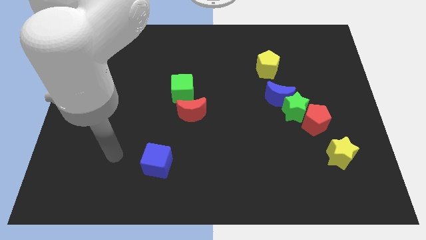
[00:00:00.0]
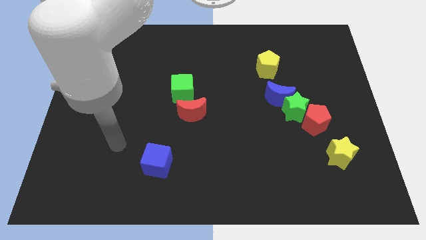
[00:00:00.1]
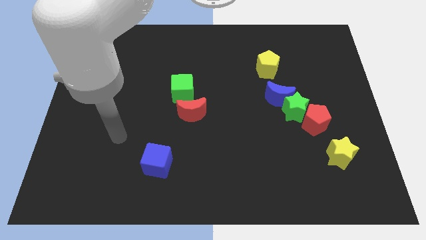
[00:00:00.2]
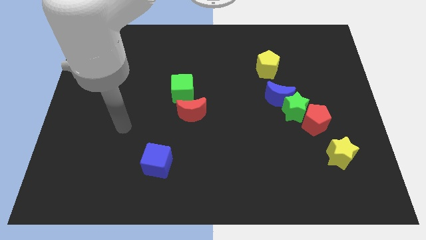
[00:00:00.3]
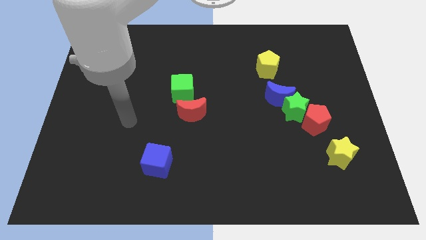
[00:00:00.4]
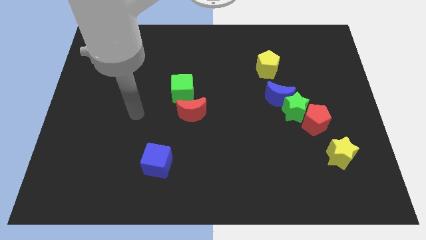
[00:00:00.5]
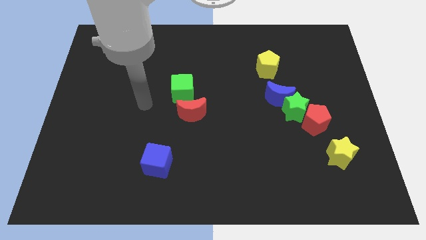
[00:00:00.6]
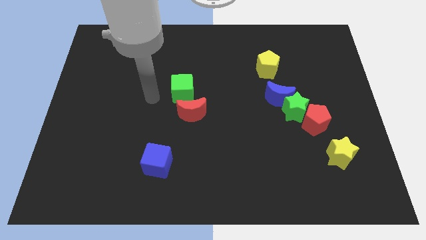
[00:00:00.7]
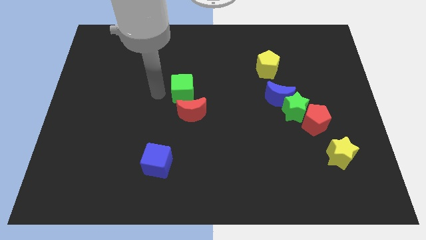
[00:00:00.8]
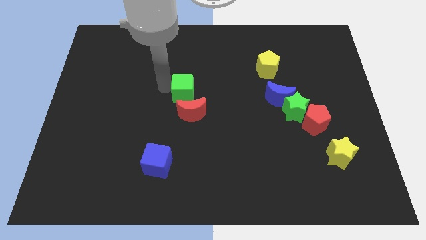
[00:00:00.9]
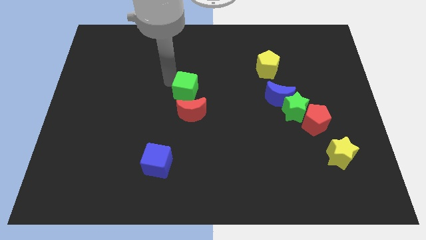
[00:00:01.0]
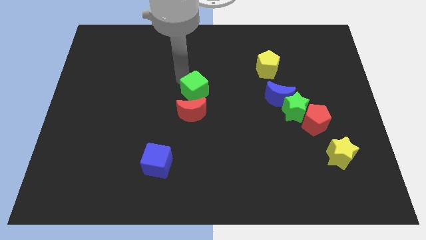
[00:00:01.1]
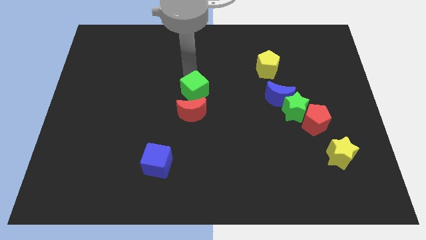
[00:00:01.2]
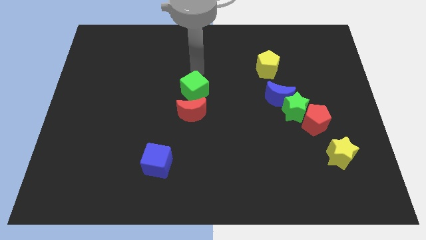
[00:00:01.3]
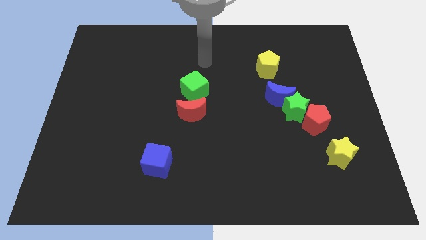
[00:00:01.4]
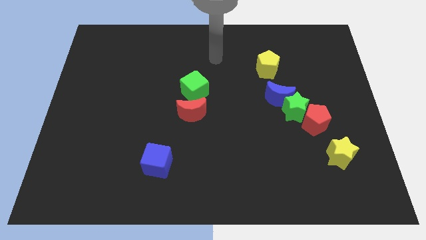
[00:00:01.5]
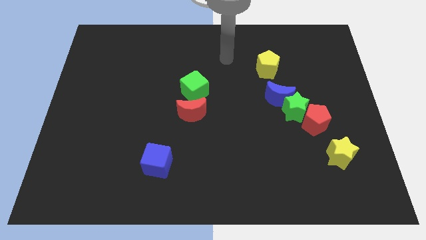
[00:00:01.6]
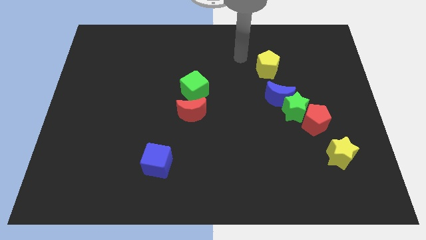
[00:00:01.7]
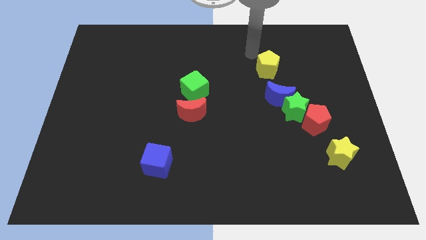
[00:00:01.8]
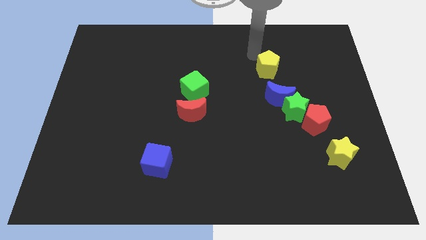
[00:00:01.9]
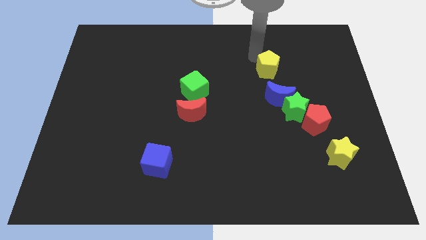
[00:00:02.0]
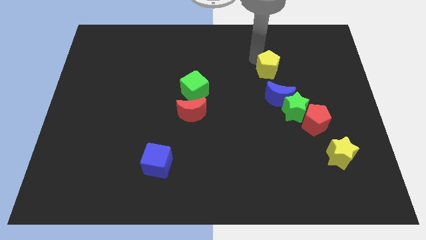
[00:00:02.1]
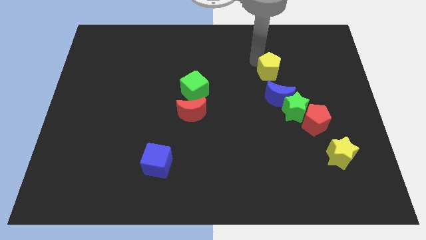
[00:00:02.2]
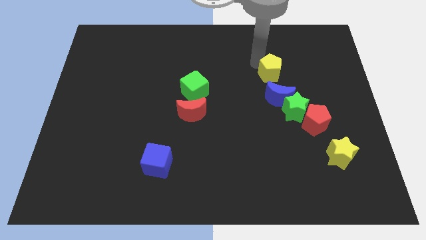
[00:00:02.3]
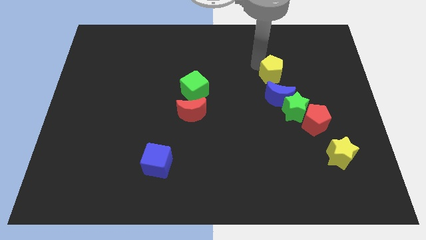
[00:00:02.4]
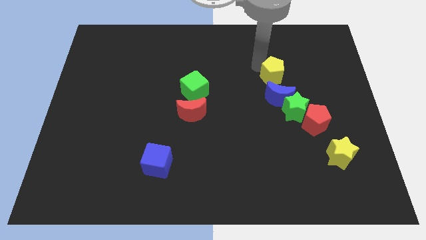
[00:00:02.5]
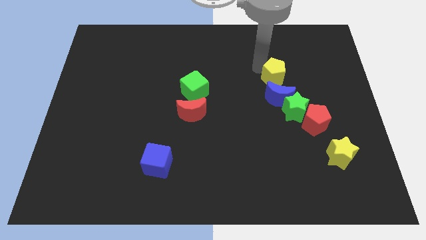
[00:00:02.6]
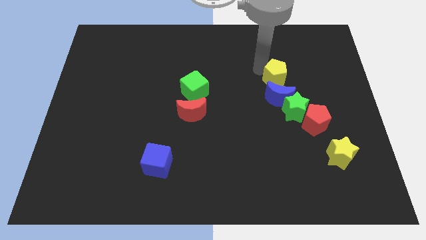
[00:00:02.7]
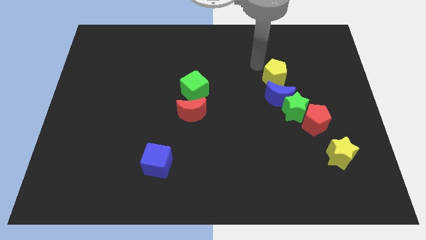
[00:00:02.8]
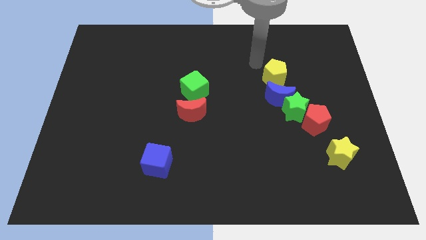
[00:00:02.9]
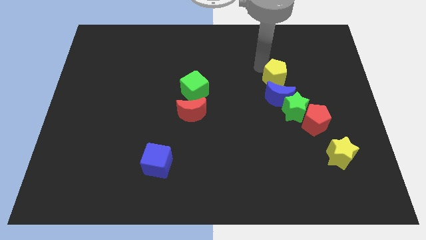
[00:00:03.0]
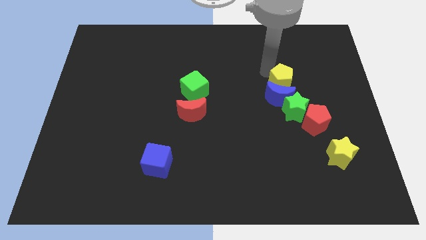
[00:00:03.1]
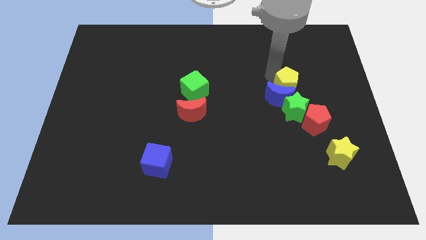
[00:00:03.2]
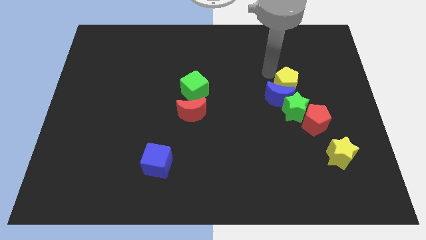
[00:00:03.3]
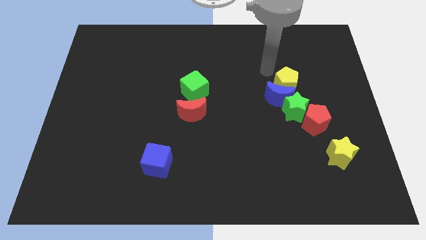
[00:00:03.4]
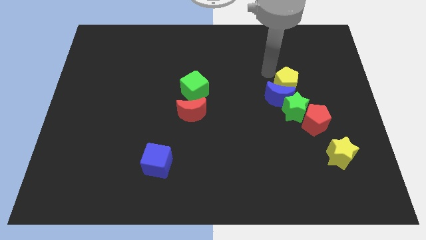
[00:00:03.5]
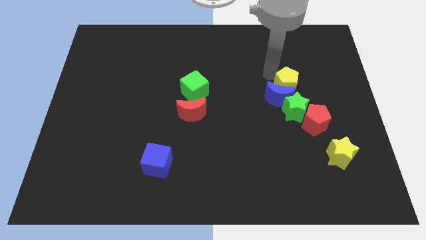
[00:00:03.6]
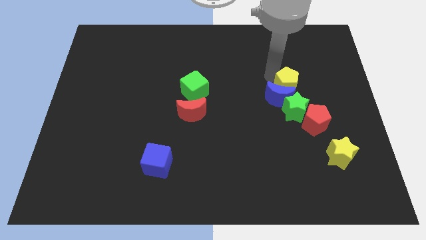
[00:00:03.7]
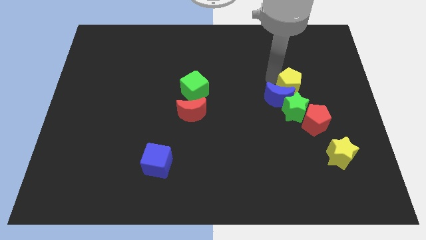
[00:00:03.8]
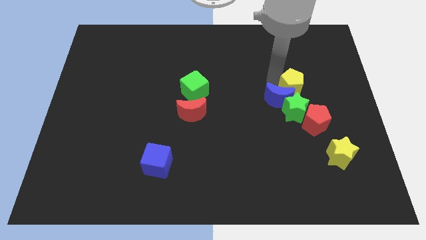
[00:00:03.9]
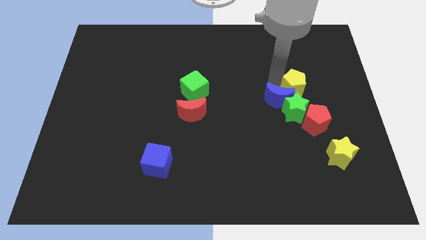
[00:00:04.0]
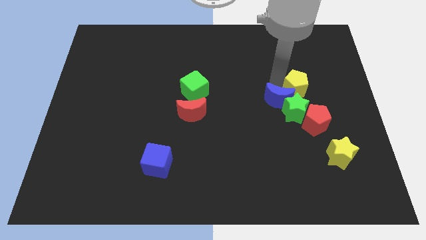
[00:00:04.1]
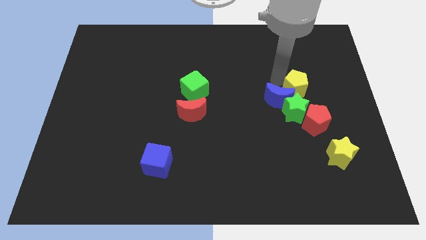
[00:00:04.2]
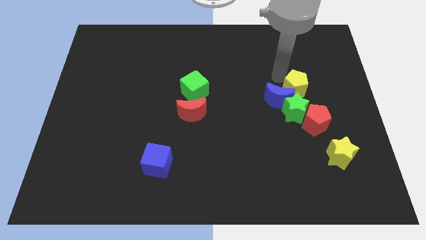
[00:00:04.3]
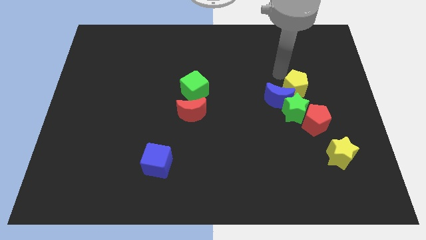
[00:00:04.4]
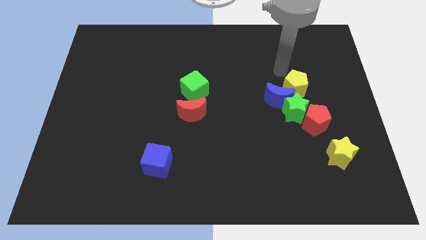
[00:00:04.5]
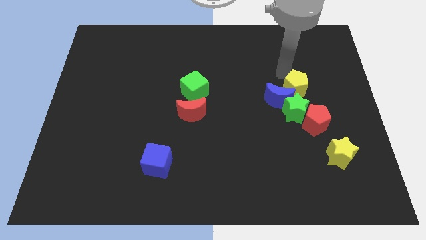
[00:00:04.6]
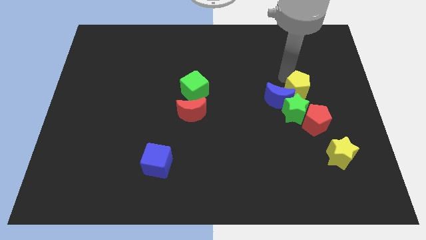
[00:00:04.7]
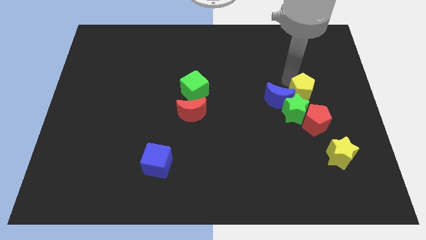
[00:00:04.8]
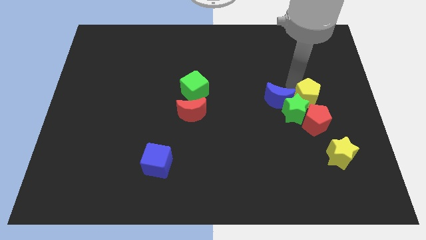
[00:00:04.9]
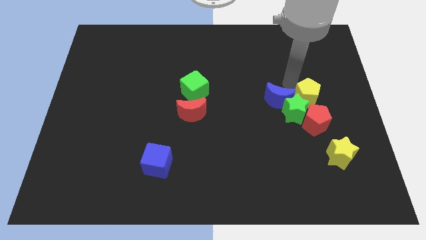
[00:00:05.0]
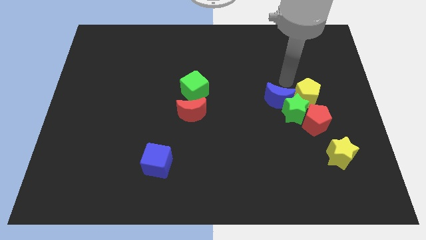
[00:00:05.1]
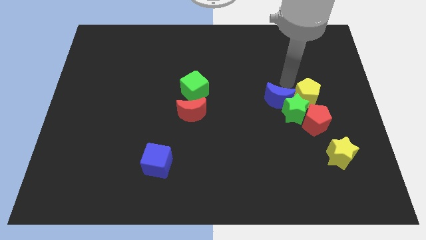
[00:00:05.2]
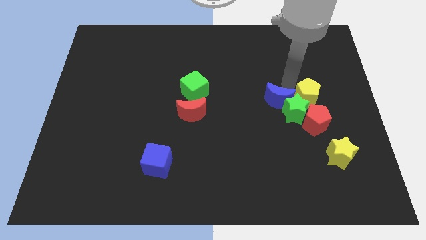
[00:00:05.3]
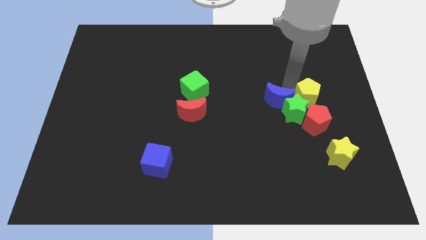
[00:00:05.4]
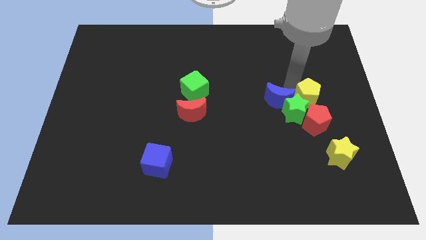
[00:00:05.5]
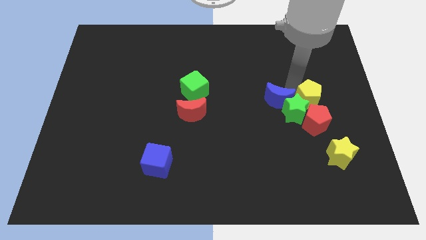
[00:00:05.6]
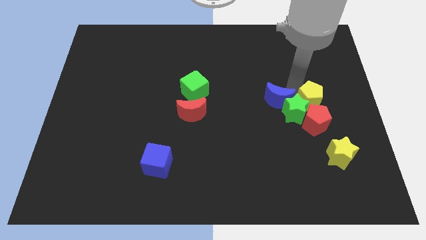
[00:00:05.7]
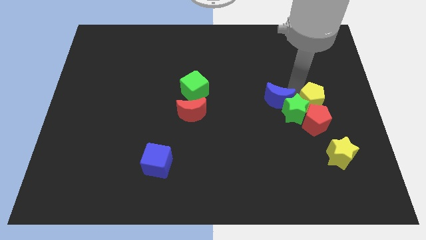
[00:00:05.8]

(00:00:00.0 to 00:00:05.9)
move the yellow pentagon close to the red pentagon

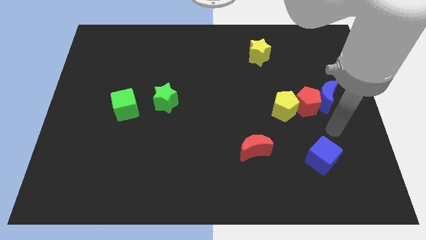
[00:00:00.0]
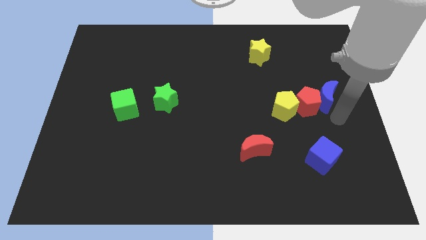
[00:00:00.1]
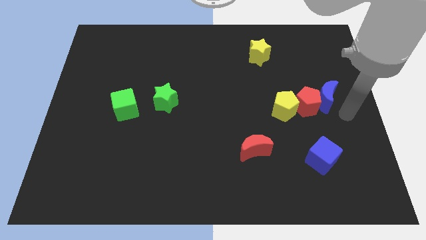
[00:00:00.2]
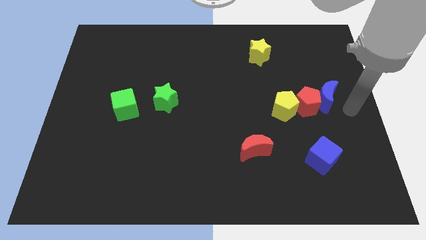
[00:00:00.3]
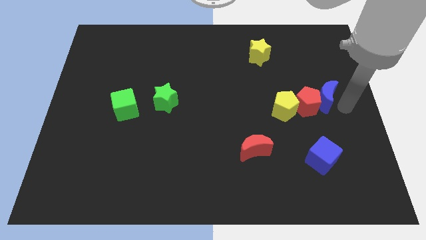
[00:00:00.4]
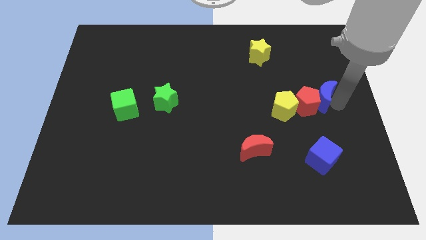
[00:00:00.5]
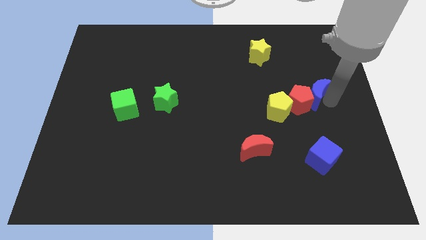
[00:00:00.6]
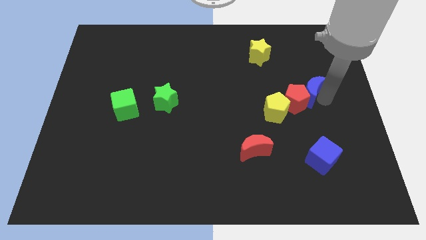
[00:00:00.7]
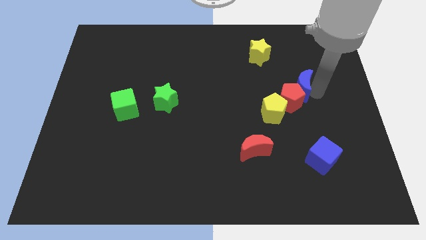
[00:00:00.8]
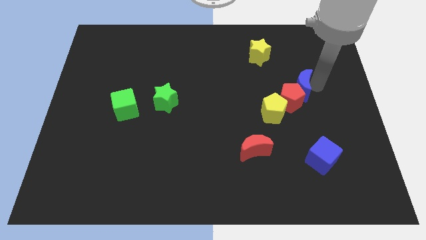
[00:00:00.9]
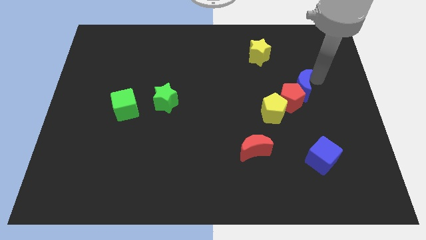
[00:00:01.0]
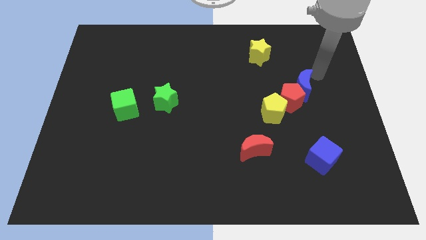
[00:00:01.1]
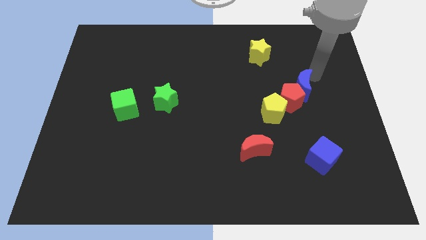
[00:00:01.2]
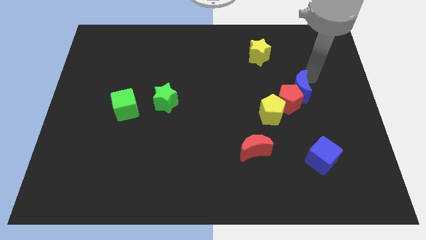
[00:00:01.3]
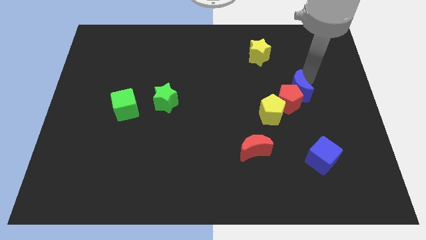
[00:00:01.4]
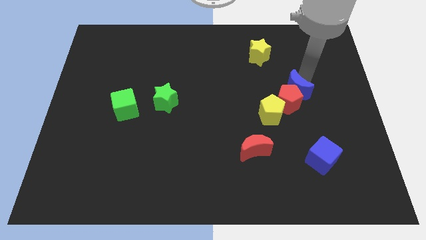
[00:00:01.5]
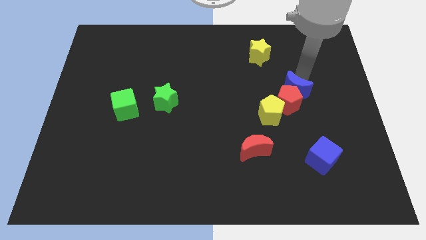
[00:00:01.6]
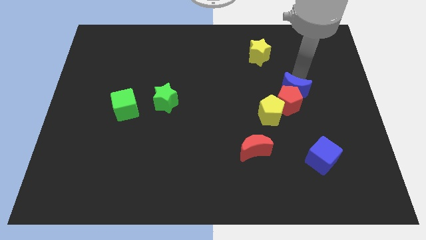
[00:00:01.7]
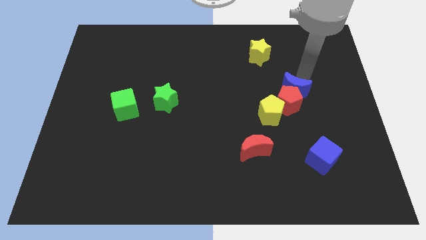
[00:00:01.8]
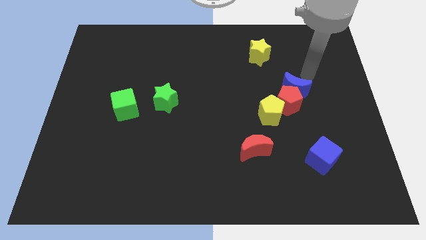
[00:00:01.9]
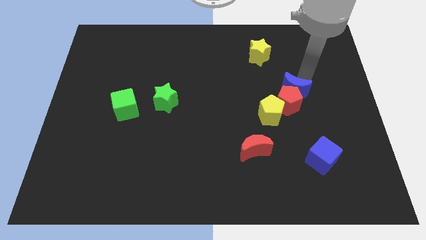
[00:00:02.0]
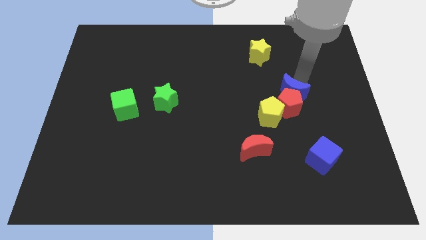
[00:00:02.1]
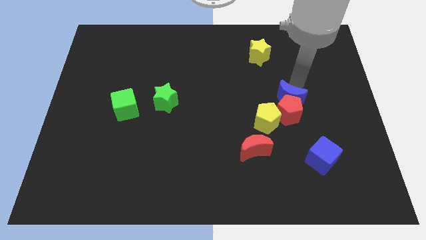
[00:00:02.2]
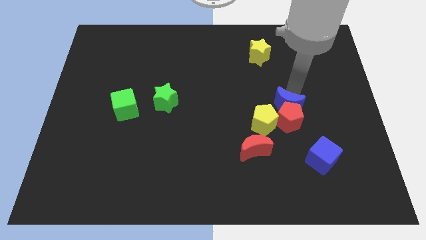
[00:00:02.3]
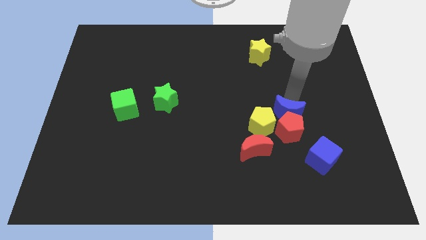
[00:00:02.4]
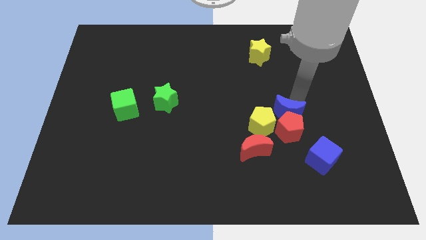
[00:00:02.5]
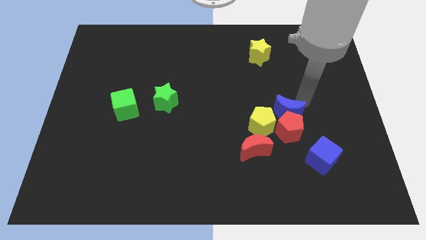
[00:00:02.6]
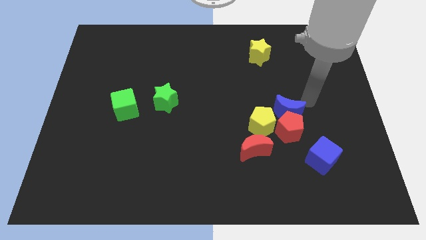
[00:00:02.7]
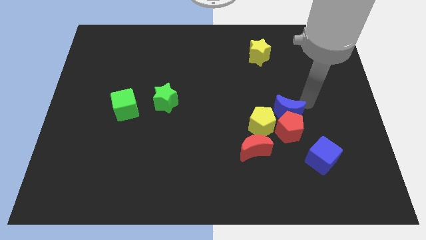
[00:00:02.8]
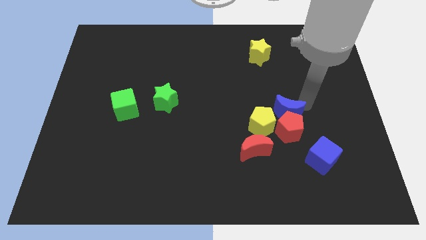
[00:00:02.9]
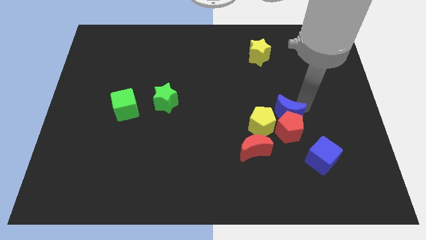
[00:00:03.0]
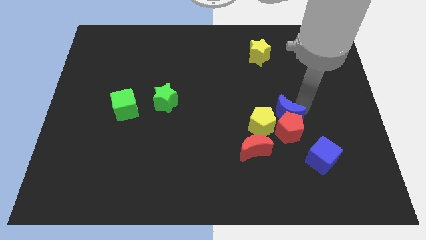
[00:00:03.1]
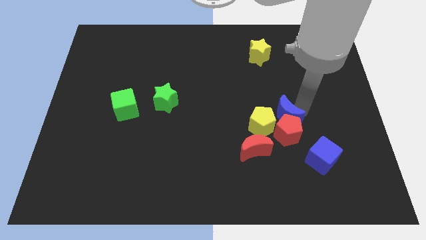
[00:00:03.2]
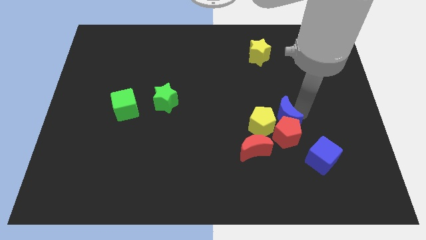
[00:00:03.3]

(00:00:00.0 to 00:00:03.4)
put the blue moon next to the yellow pentagon
